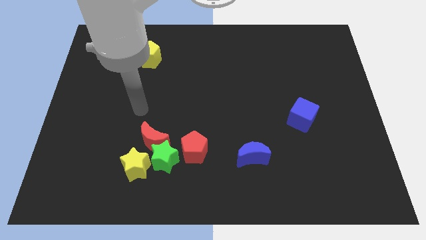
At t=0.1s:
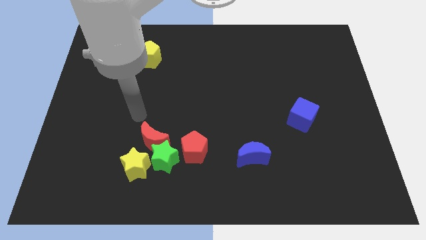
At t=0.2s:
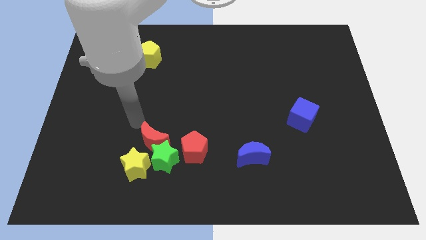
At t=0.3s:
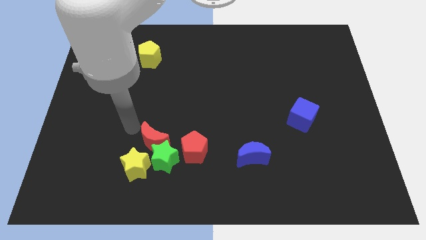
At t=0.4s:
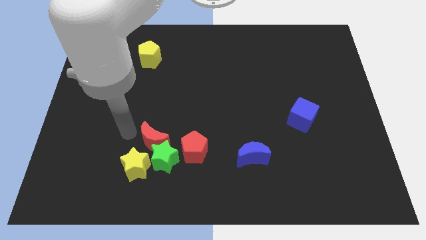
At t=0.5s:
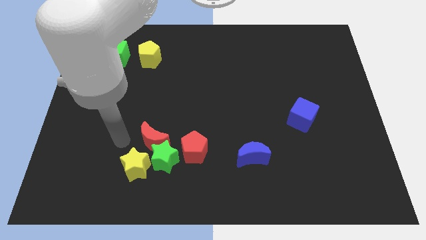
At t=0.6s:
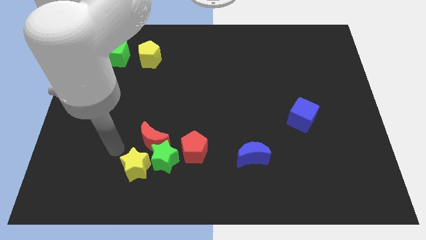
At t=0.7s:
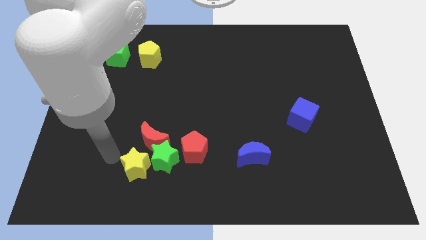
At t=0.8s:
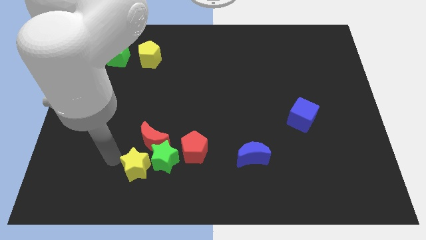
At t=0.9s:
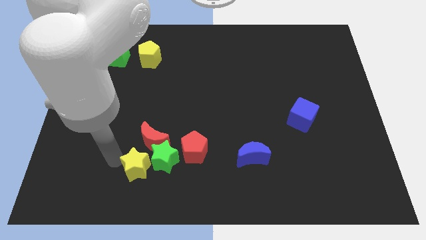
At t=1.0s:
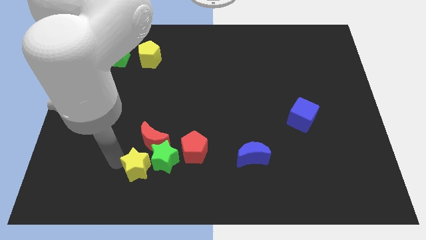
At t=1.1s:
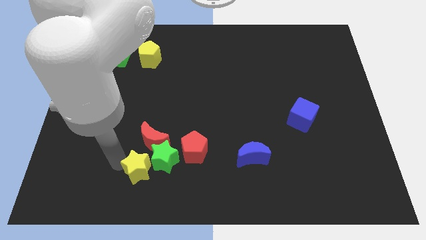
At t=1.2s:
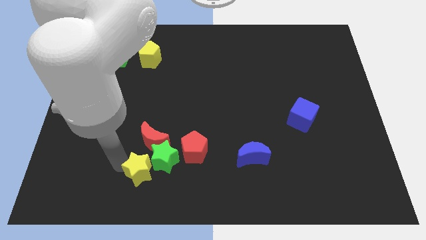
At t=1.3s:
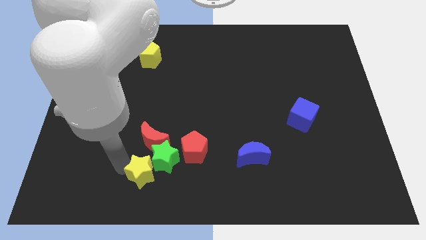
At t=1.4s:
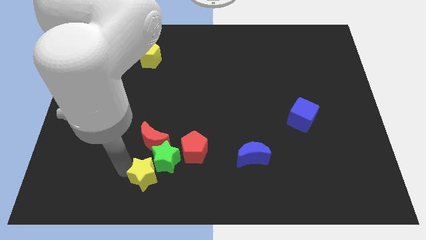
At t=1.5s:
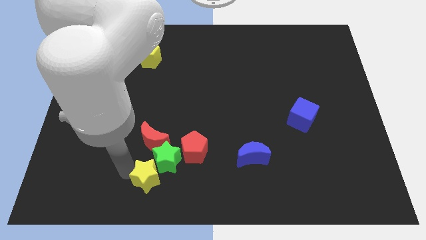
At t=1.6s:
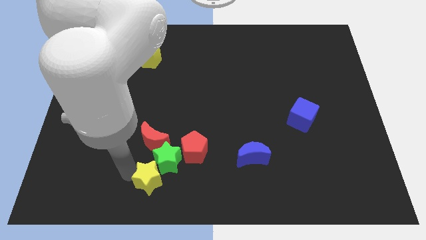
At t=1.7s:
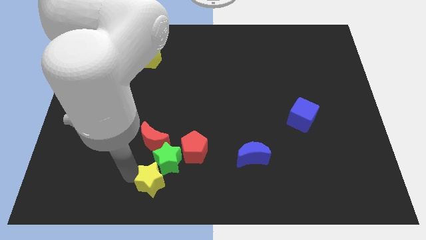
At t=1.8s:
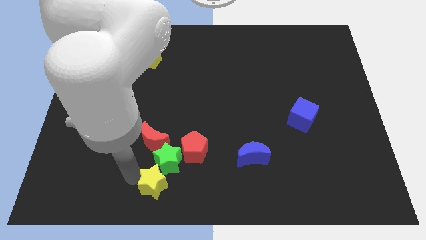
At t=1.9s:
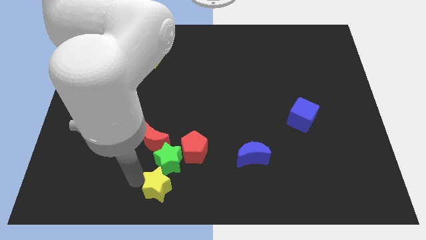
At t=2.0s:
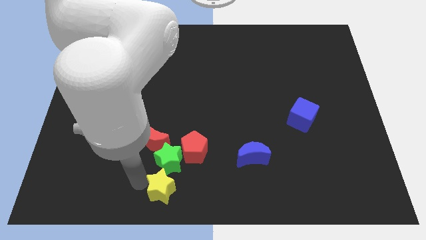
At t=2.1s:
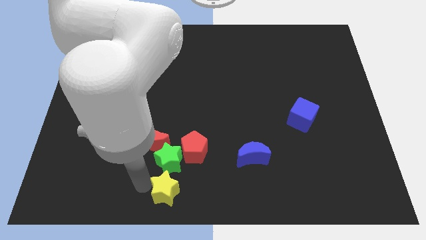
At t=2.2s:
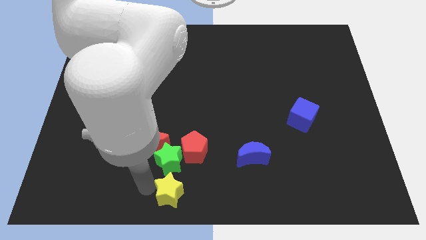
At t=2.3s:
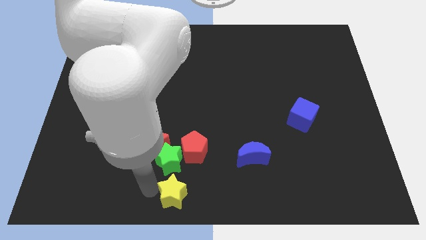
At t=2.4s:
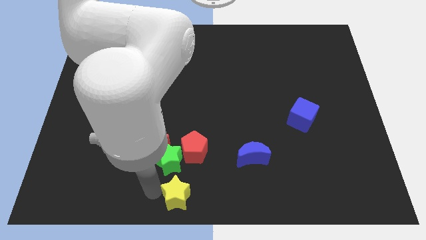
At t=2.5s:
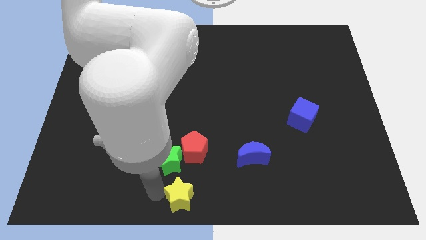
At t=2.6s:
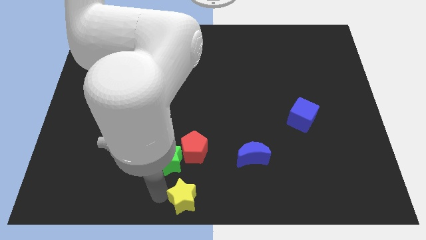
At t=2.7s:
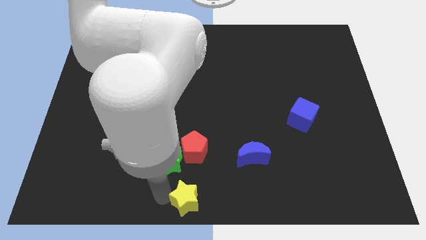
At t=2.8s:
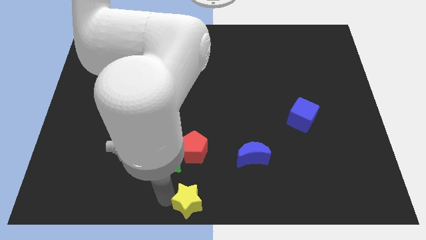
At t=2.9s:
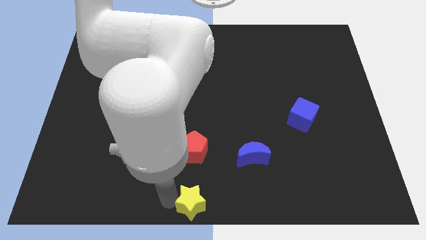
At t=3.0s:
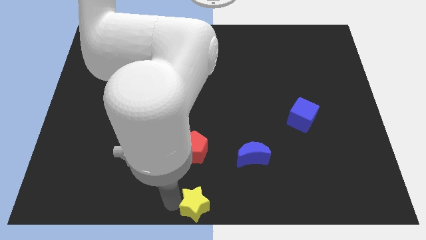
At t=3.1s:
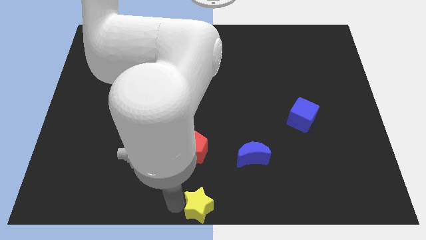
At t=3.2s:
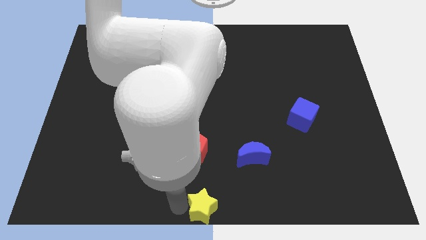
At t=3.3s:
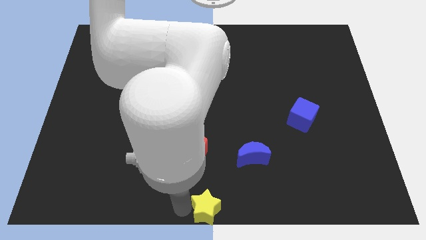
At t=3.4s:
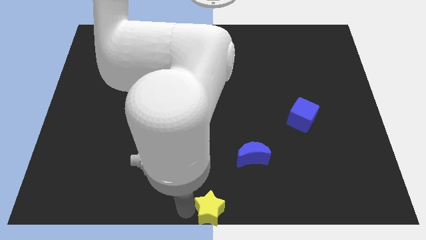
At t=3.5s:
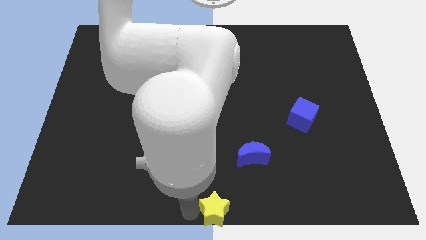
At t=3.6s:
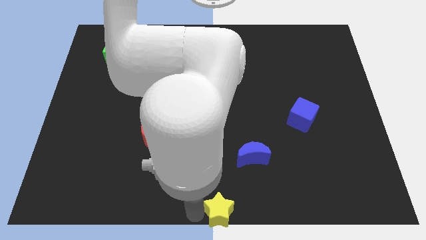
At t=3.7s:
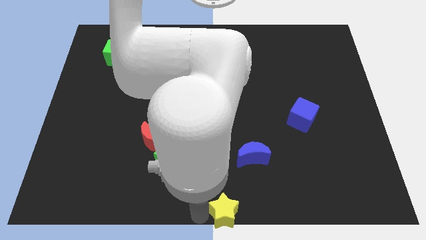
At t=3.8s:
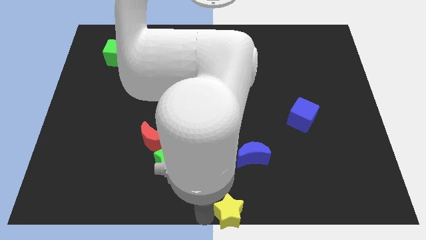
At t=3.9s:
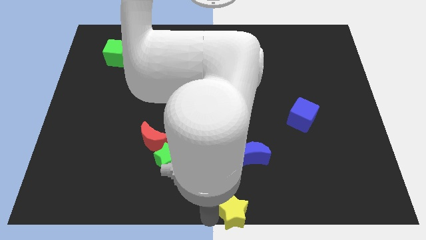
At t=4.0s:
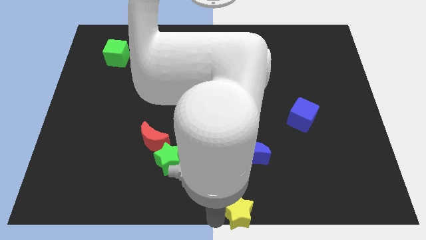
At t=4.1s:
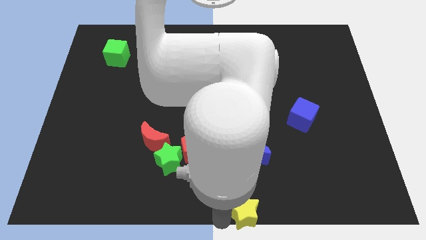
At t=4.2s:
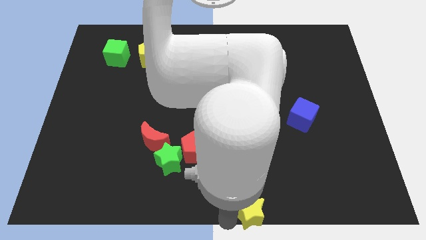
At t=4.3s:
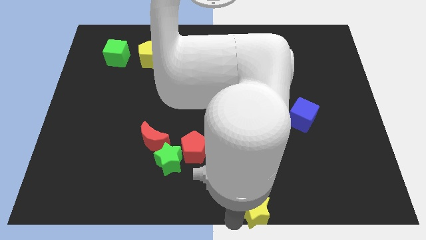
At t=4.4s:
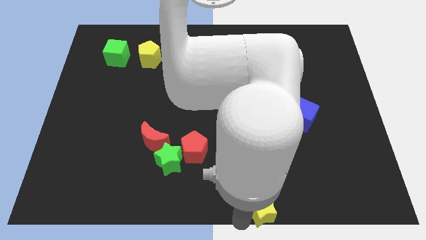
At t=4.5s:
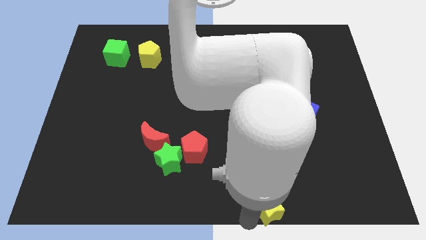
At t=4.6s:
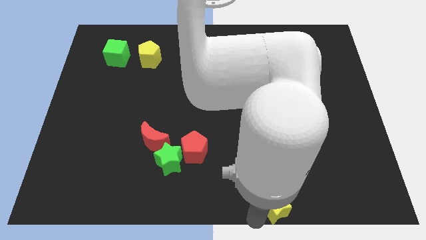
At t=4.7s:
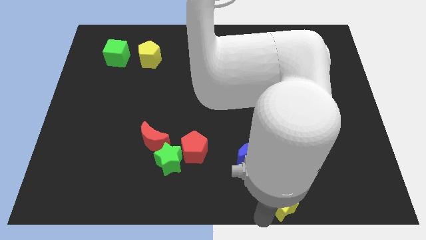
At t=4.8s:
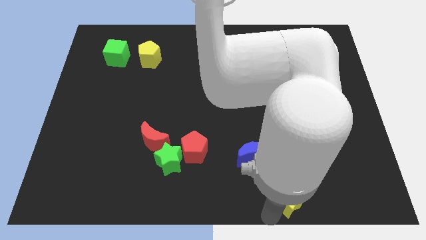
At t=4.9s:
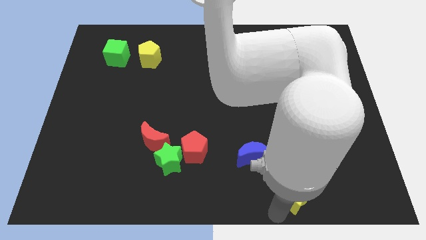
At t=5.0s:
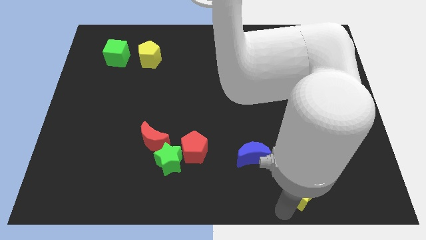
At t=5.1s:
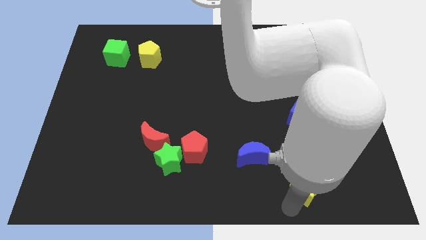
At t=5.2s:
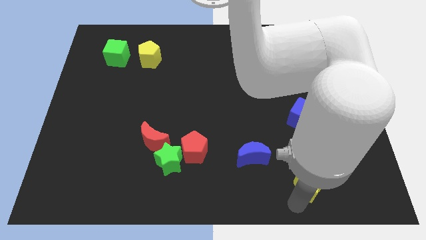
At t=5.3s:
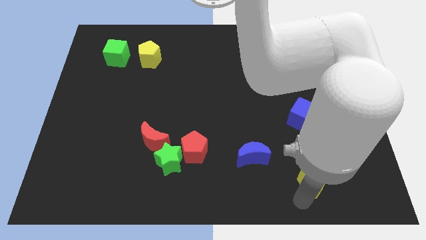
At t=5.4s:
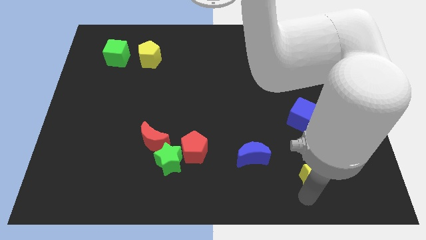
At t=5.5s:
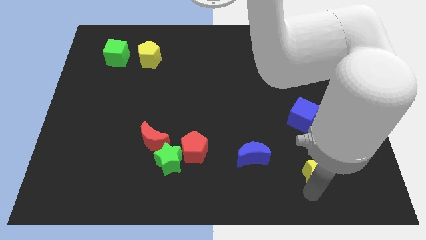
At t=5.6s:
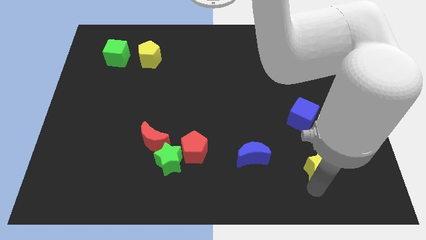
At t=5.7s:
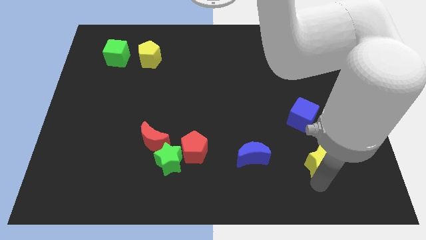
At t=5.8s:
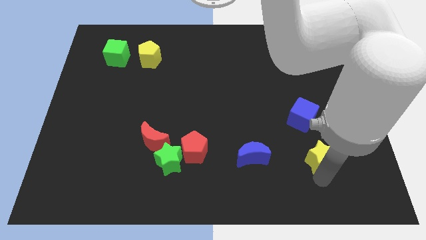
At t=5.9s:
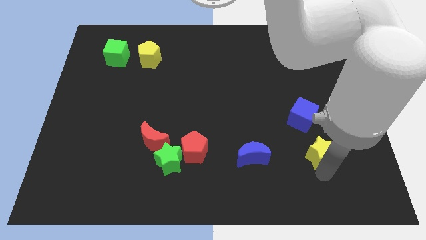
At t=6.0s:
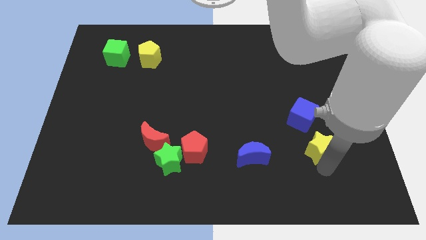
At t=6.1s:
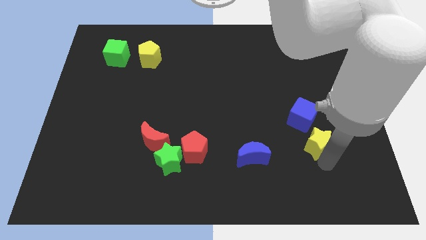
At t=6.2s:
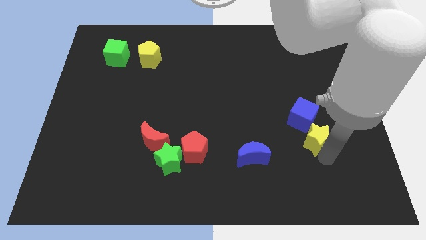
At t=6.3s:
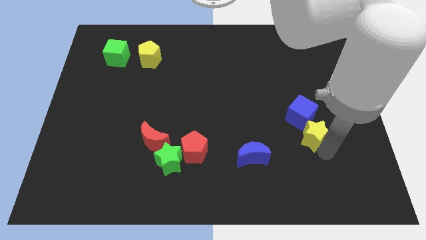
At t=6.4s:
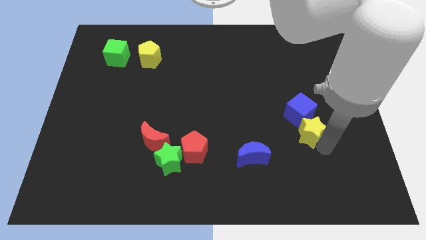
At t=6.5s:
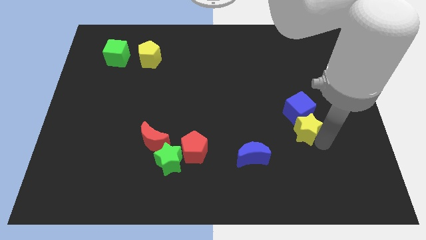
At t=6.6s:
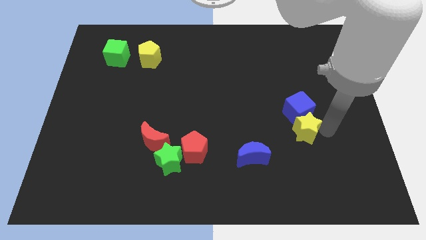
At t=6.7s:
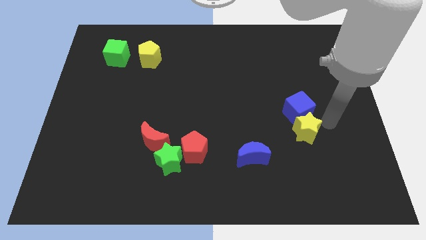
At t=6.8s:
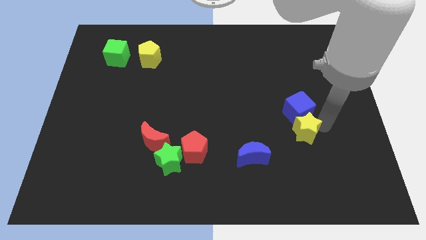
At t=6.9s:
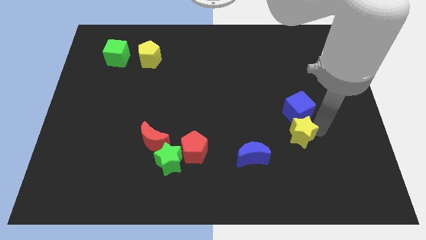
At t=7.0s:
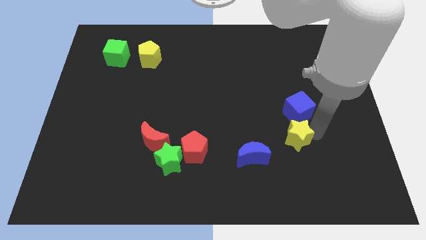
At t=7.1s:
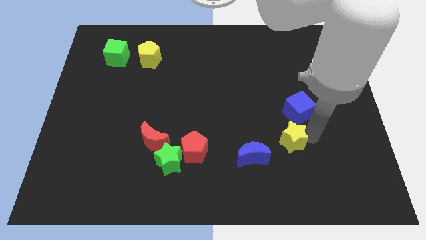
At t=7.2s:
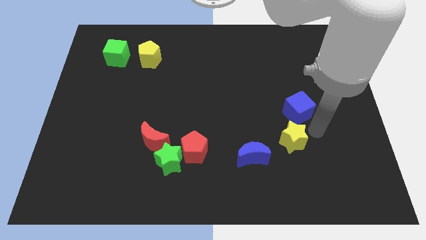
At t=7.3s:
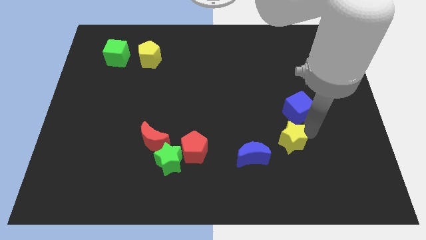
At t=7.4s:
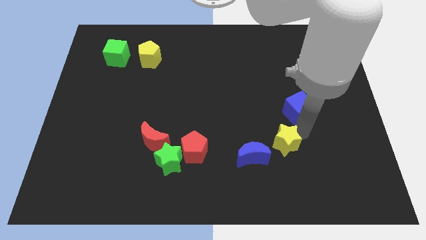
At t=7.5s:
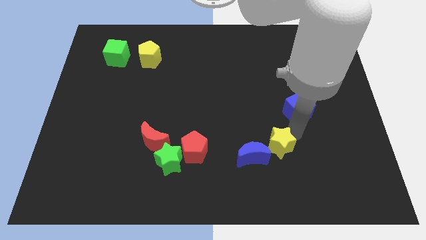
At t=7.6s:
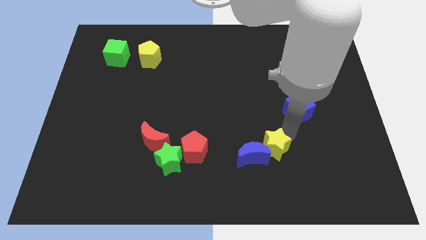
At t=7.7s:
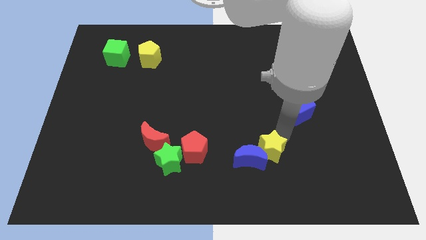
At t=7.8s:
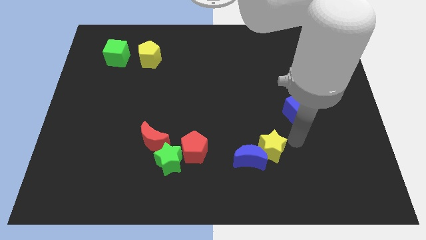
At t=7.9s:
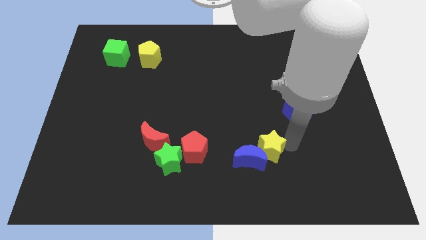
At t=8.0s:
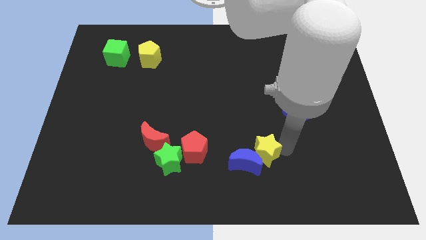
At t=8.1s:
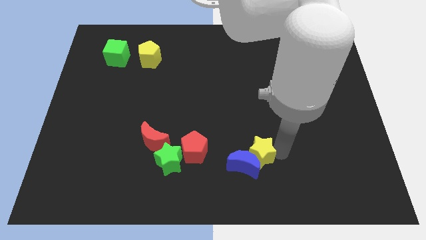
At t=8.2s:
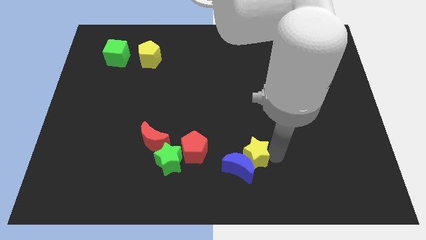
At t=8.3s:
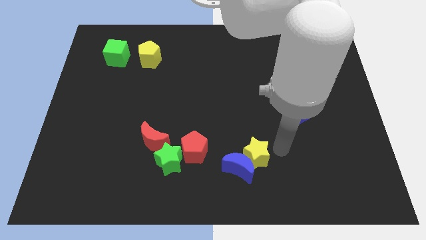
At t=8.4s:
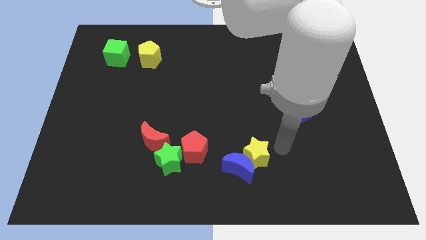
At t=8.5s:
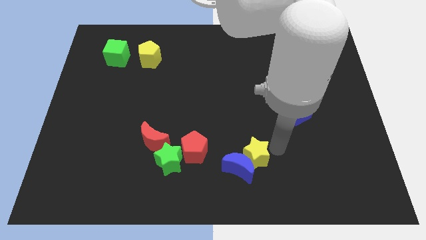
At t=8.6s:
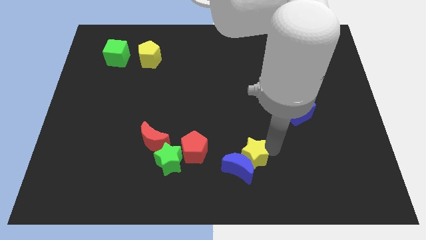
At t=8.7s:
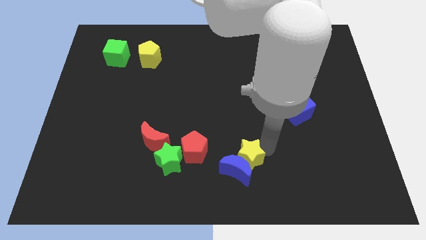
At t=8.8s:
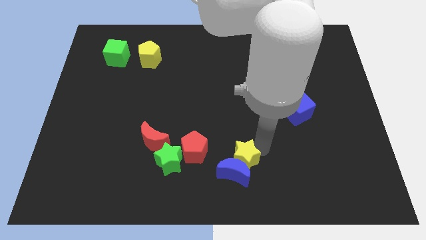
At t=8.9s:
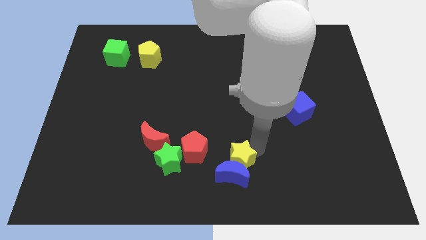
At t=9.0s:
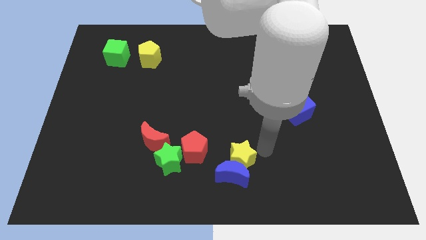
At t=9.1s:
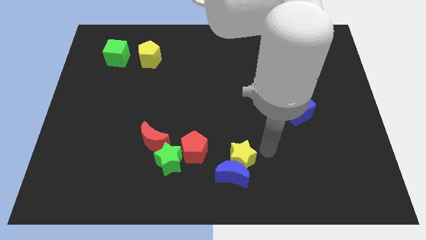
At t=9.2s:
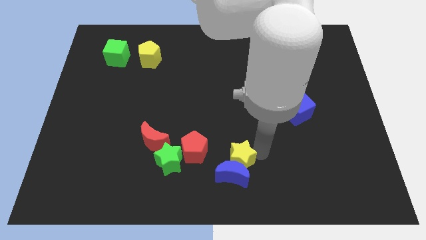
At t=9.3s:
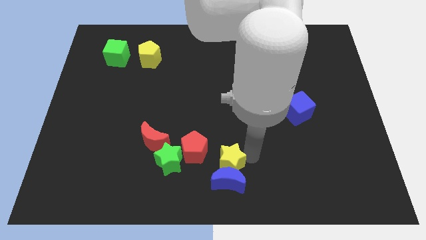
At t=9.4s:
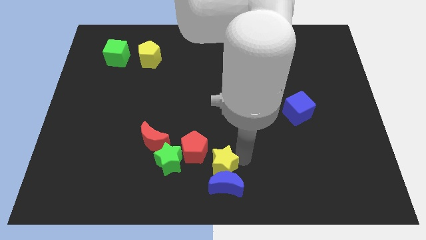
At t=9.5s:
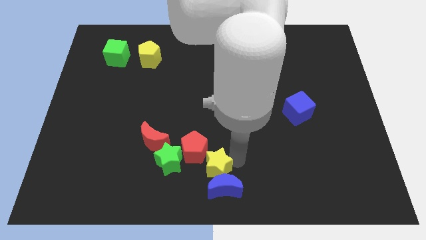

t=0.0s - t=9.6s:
move the yellow star next to the red pentagon
